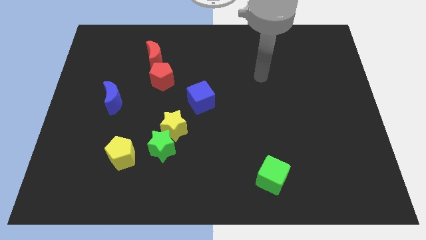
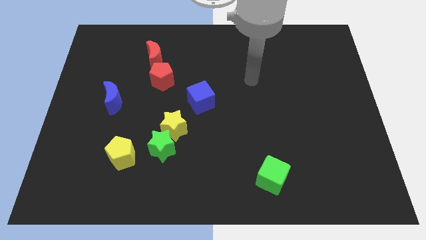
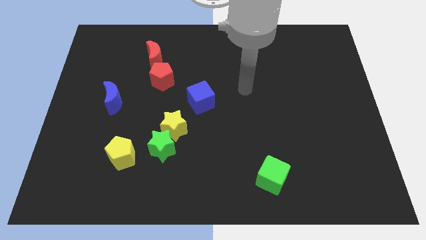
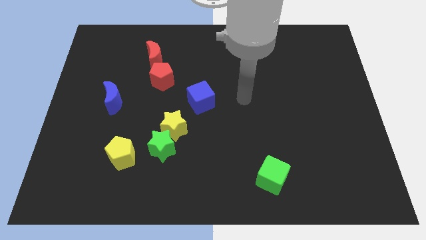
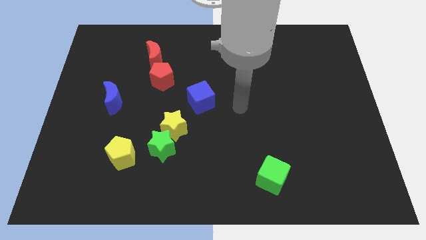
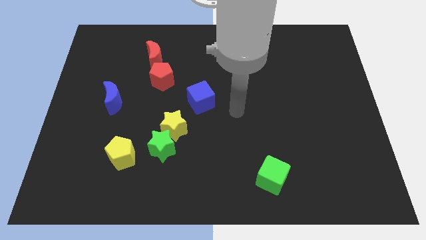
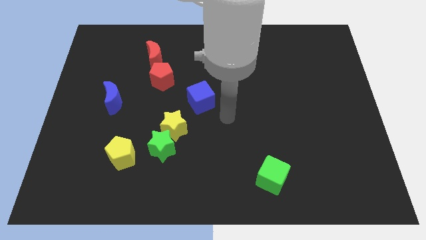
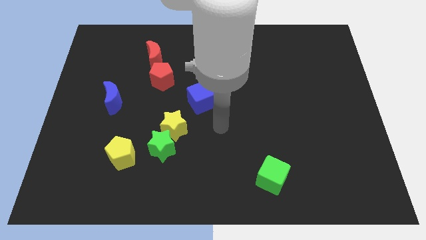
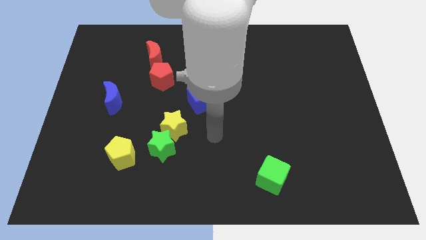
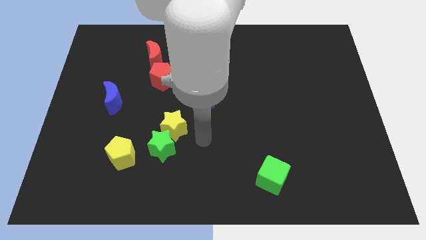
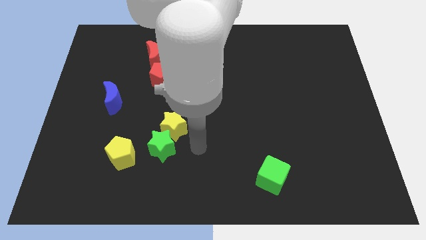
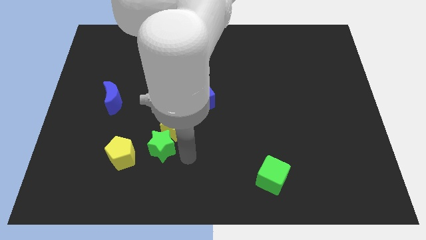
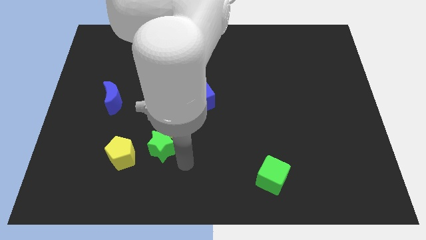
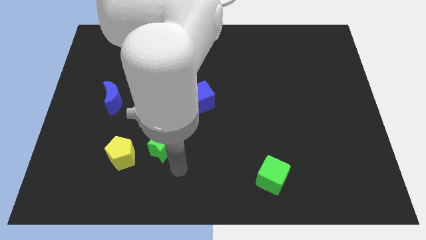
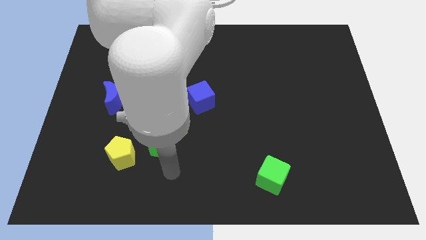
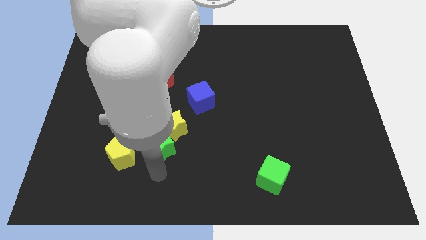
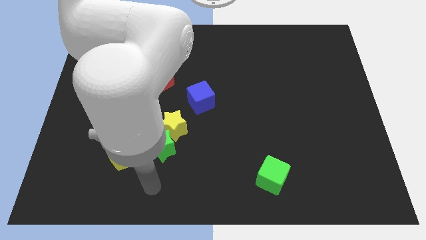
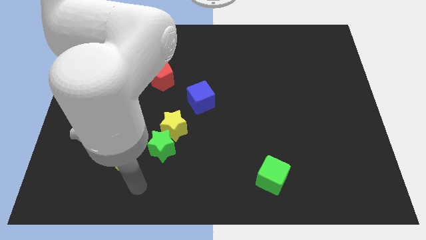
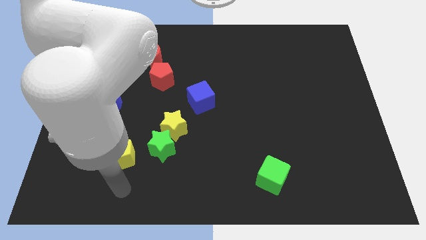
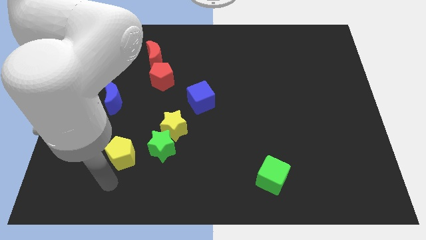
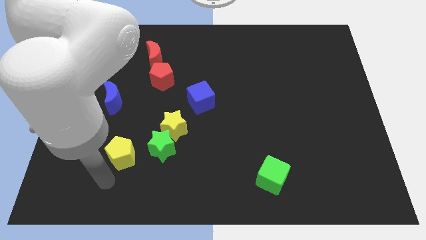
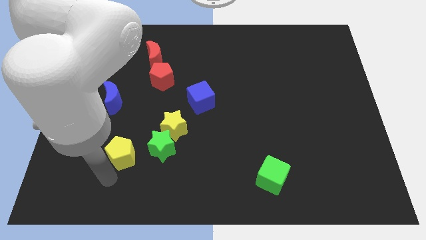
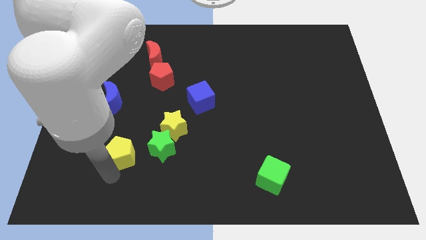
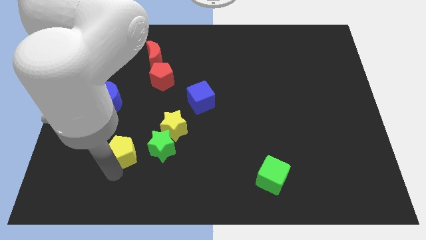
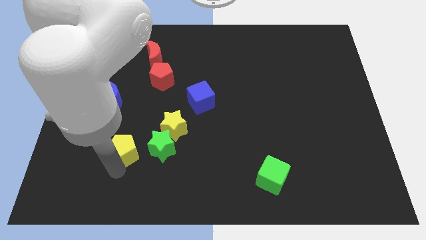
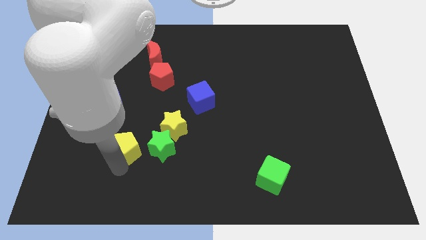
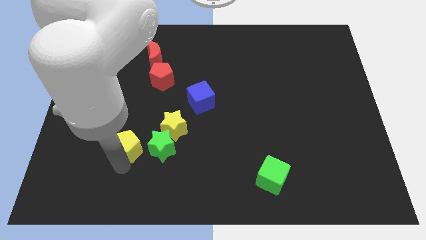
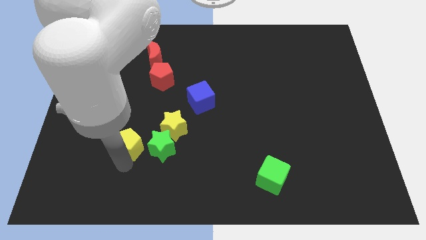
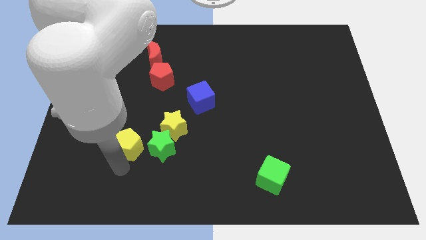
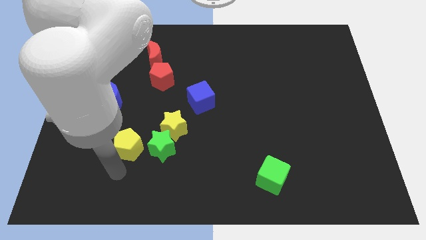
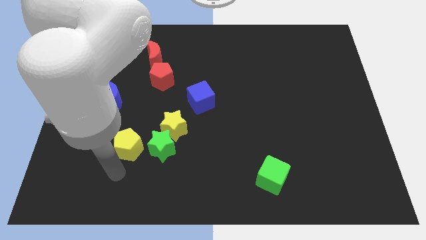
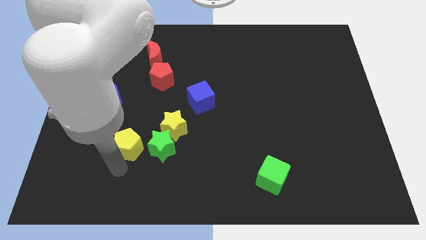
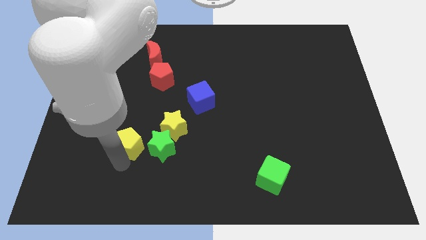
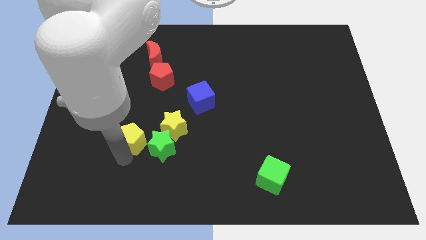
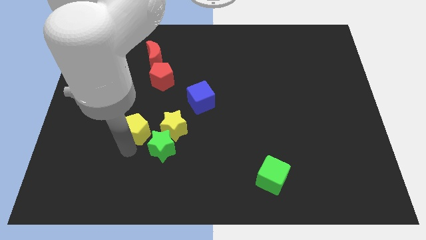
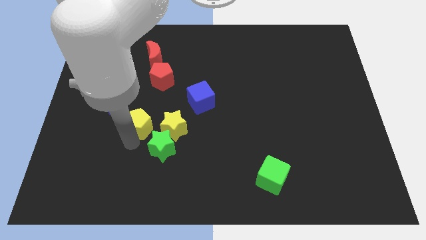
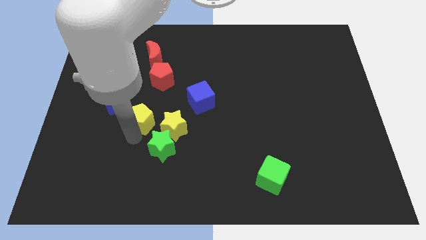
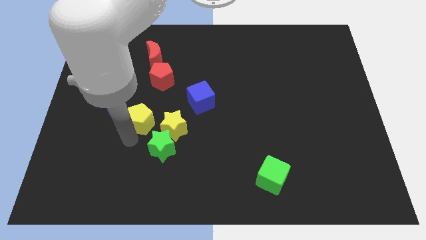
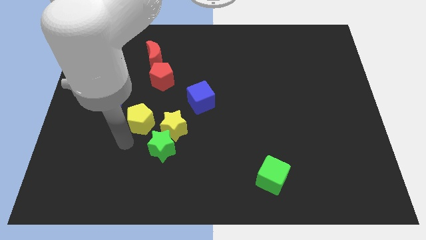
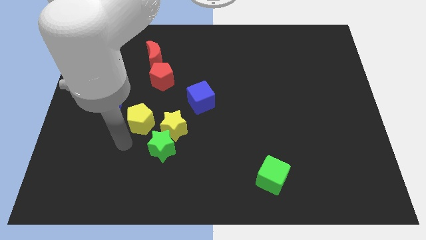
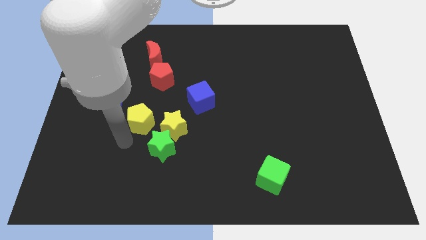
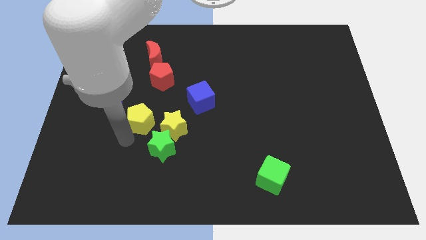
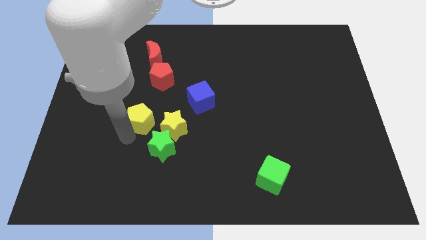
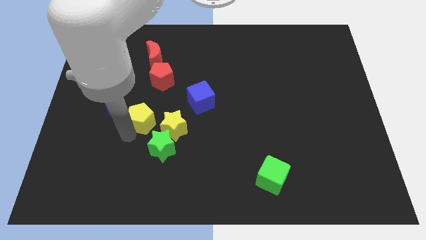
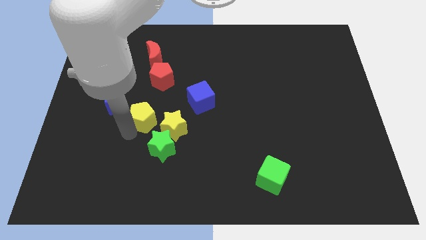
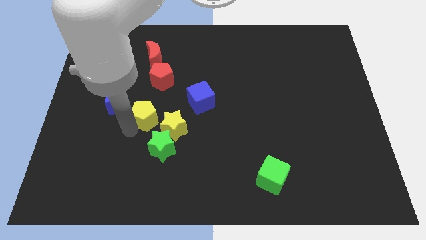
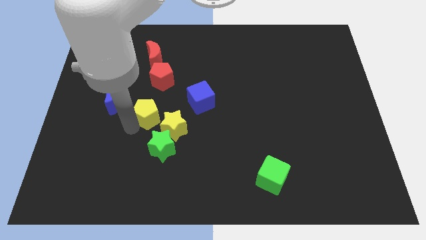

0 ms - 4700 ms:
put the yellow pentagon left of the blue cube

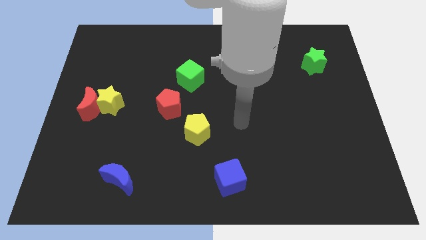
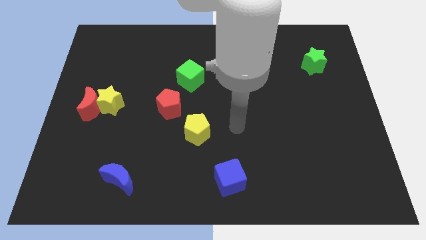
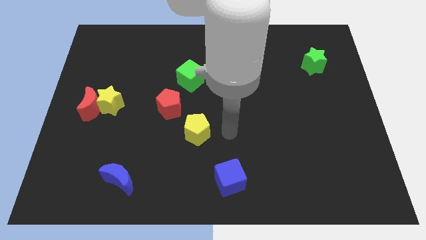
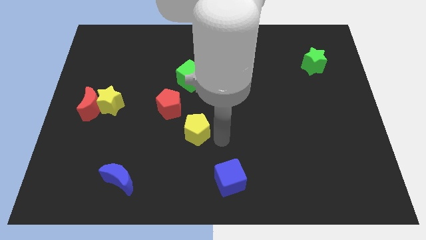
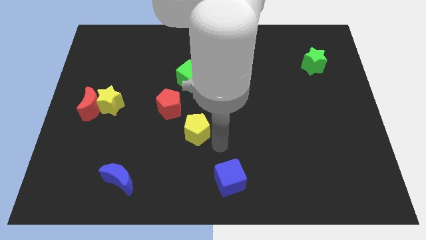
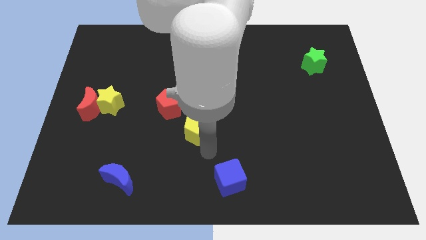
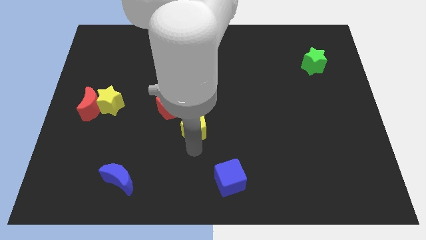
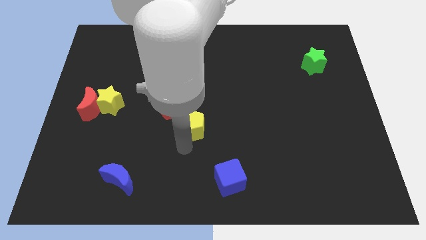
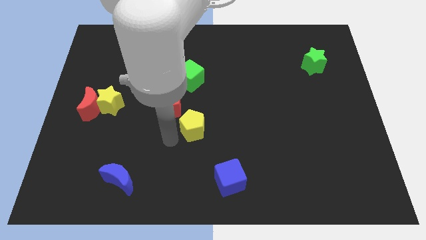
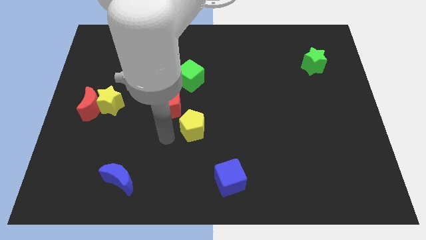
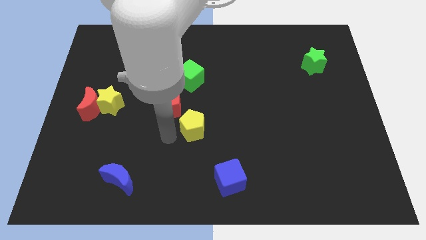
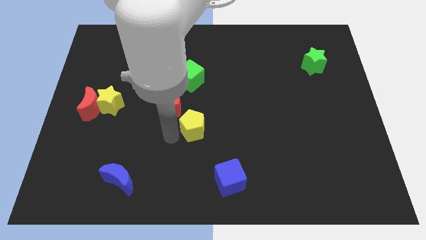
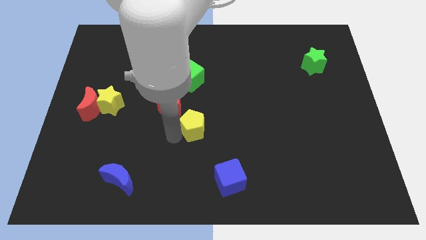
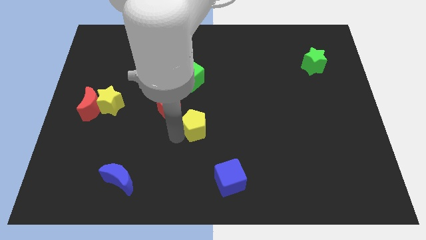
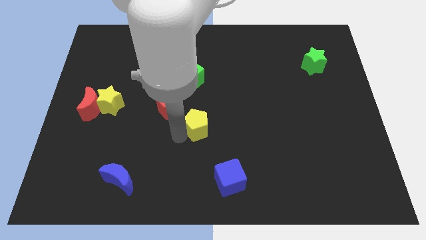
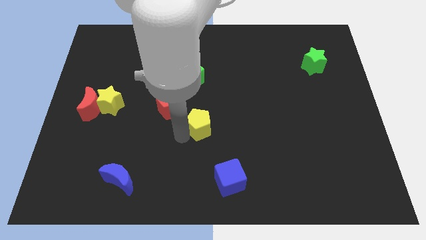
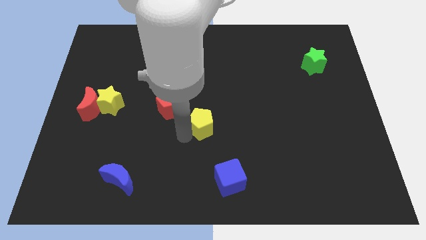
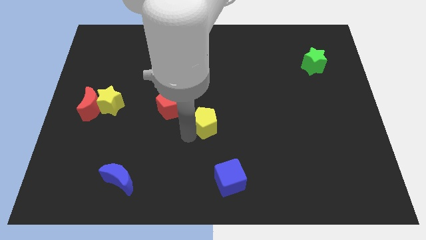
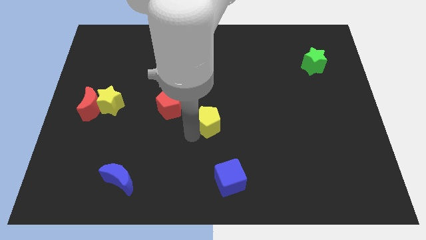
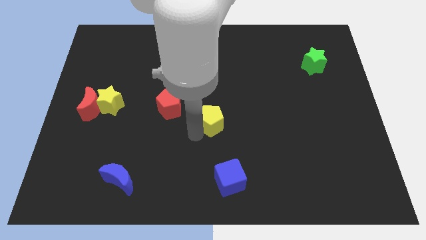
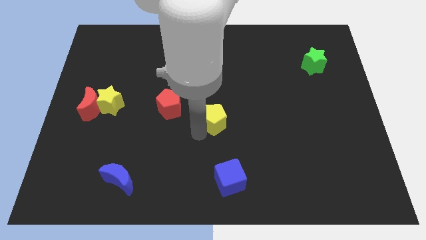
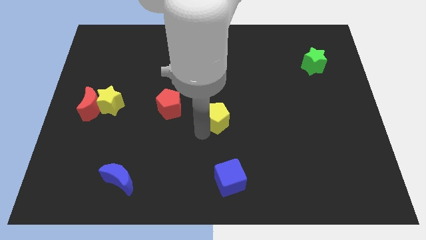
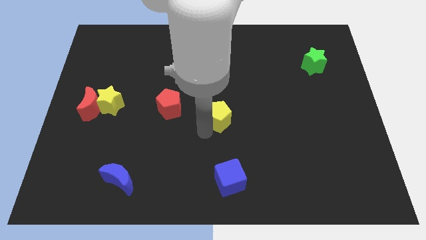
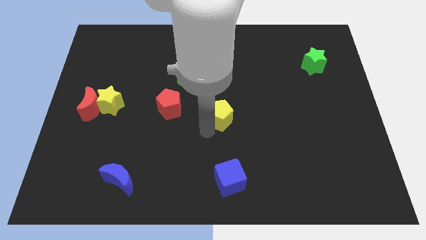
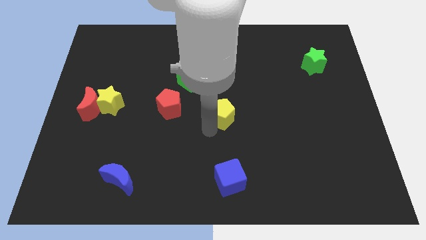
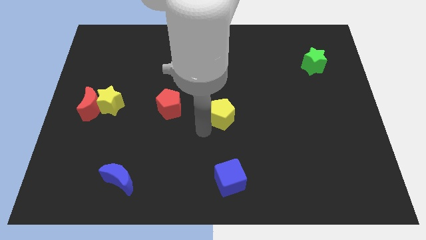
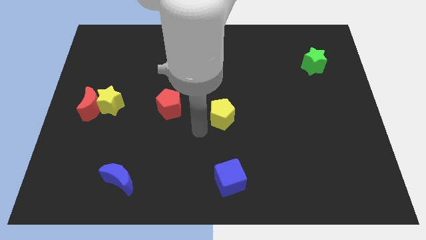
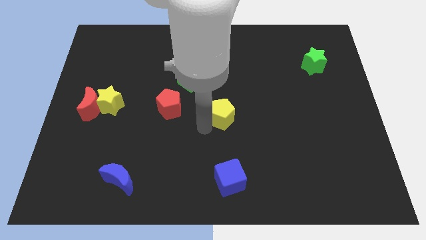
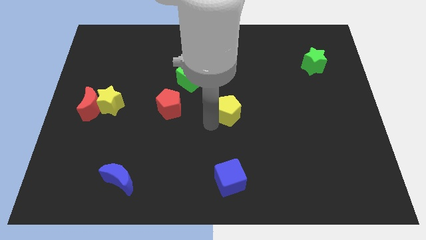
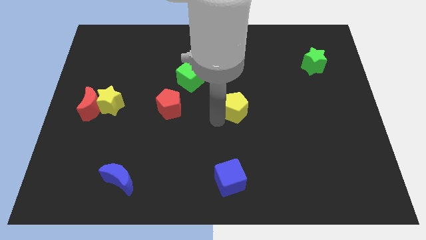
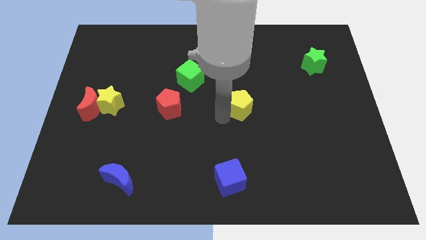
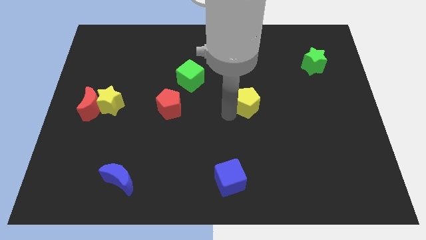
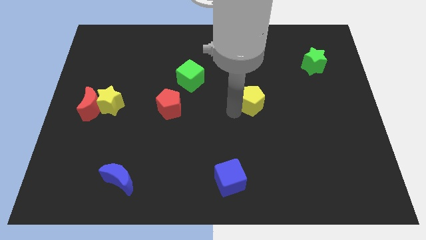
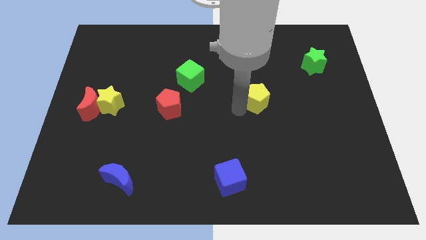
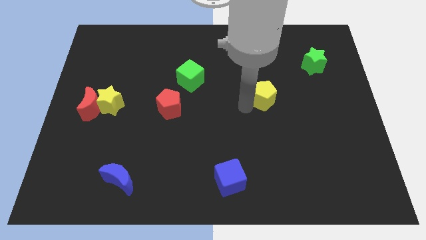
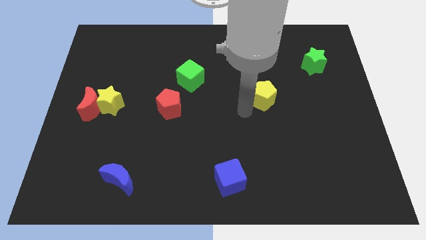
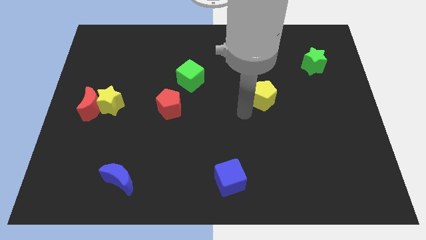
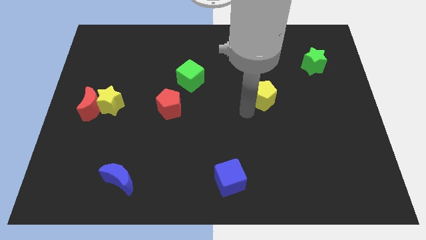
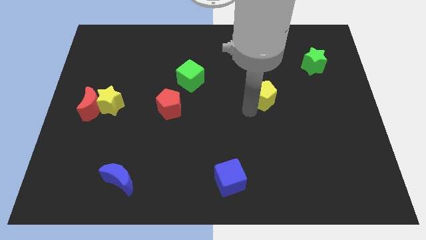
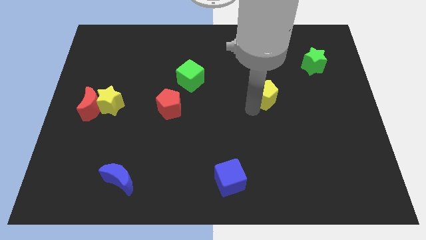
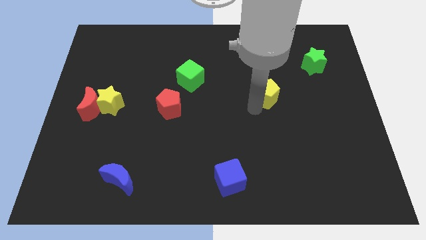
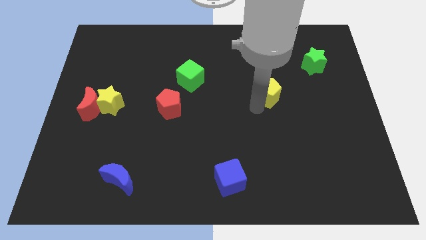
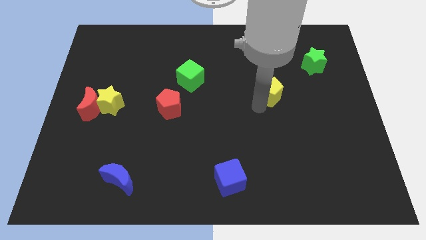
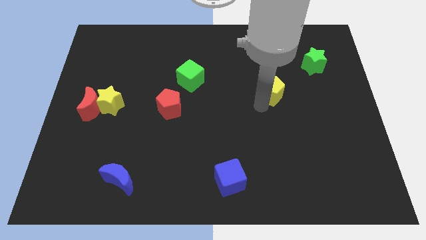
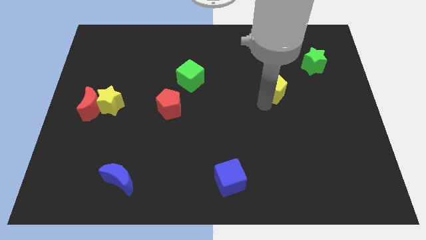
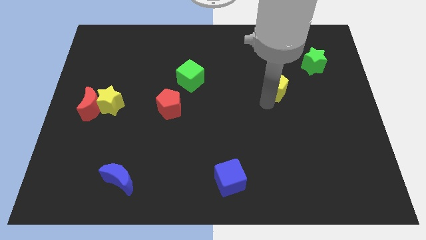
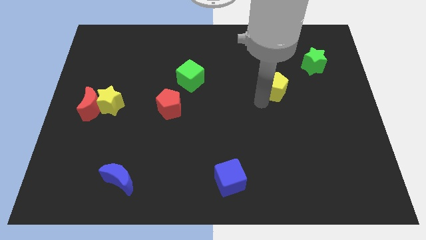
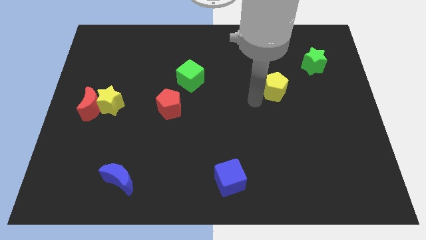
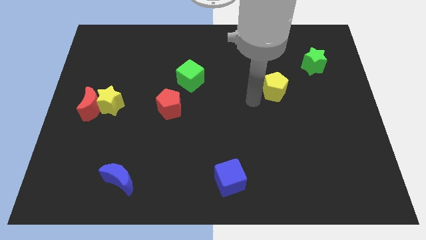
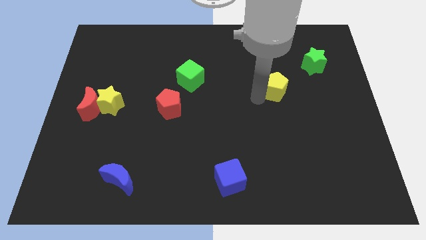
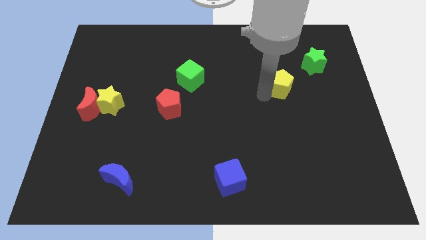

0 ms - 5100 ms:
move the yellow pentagon diagonally down and to the left of the green star
